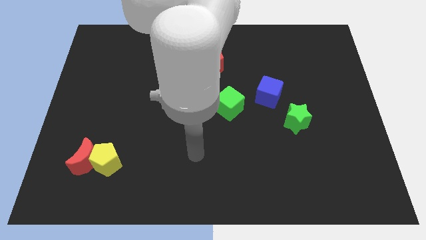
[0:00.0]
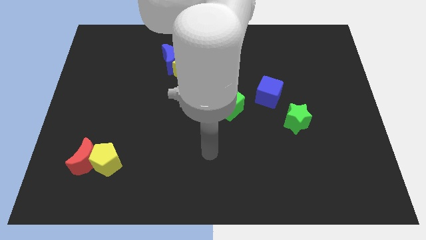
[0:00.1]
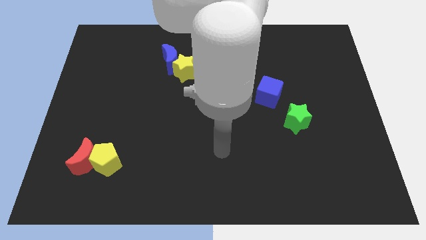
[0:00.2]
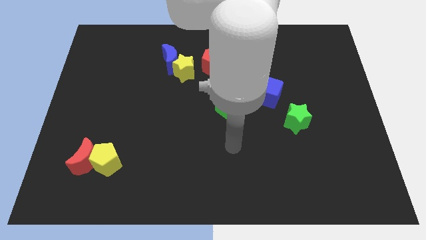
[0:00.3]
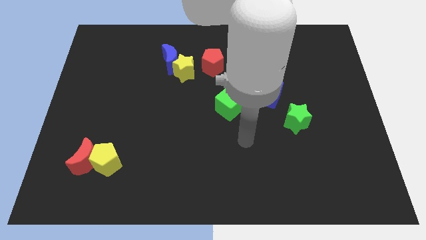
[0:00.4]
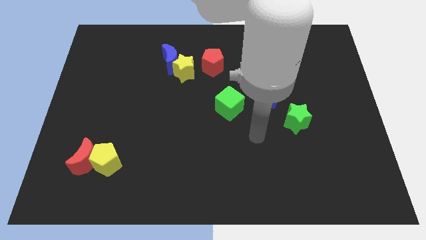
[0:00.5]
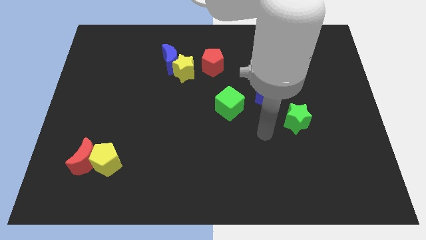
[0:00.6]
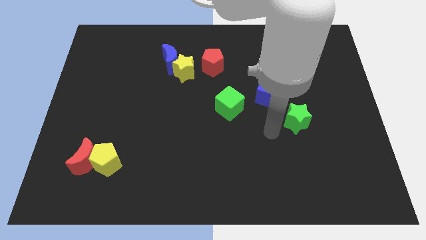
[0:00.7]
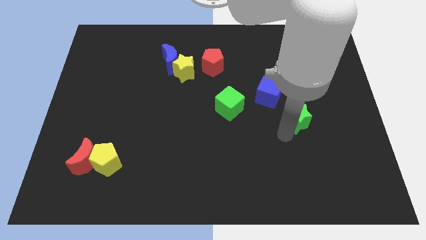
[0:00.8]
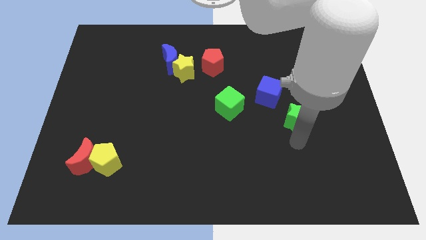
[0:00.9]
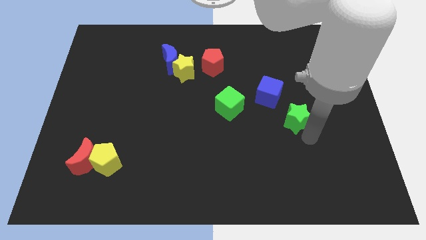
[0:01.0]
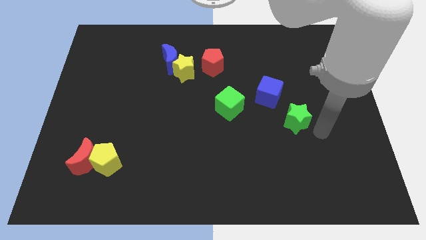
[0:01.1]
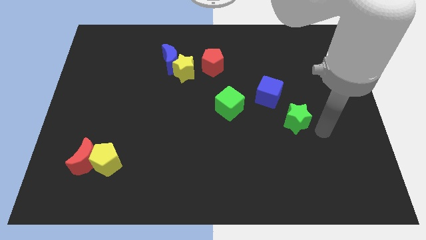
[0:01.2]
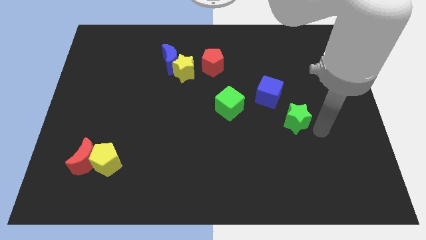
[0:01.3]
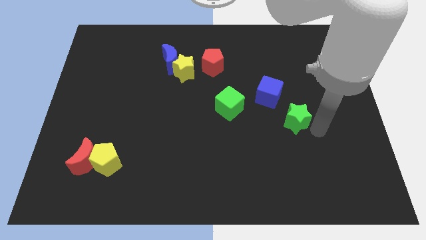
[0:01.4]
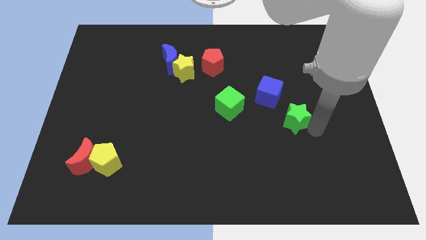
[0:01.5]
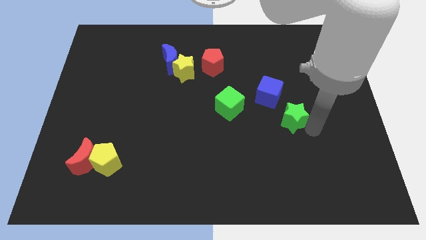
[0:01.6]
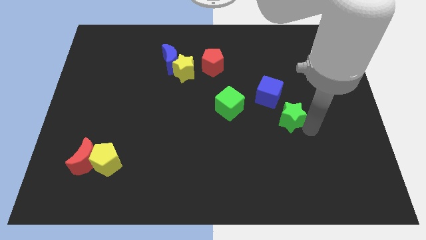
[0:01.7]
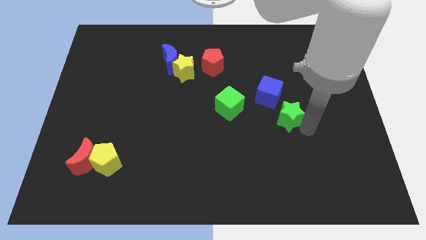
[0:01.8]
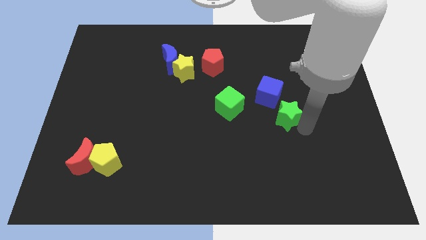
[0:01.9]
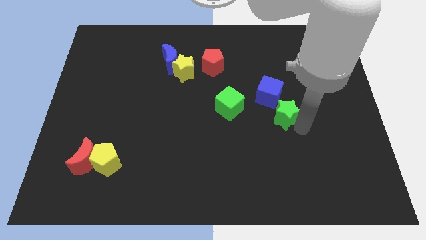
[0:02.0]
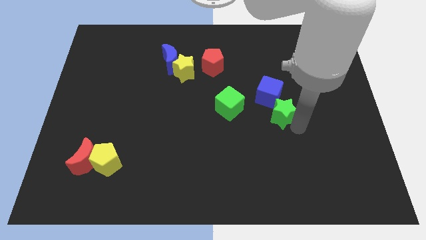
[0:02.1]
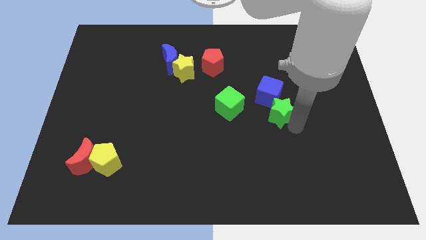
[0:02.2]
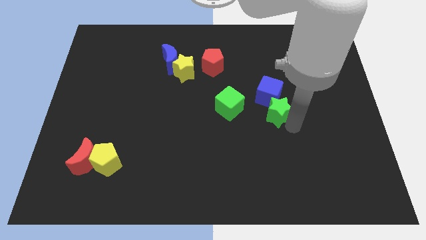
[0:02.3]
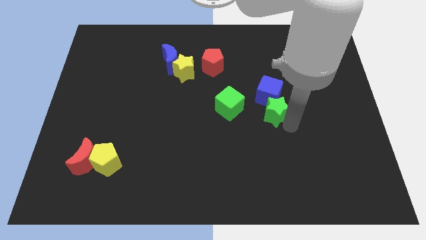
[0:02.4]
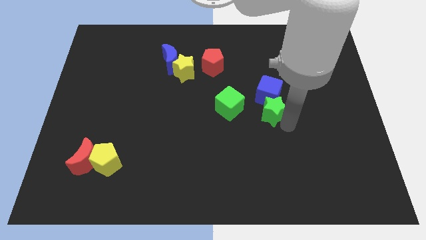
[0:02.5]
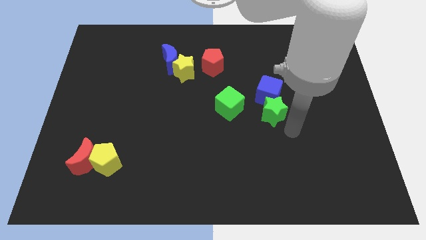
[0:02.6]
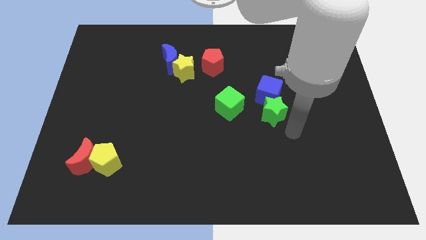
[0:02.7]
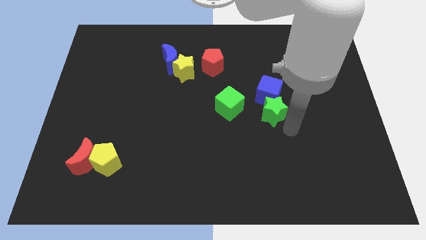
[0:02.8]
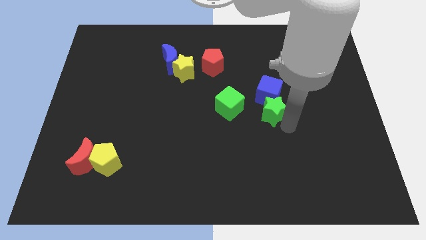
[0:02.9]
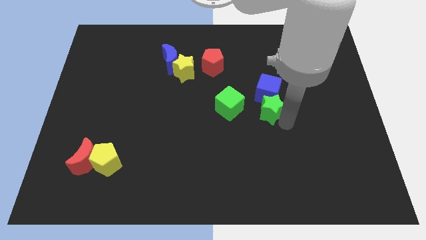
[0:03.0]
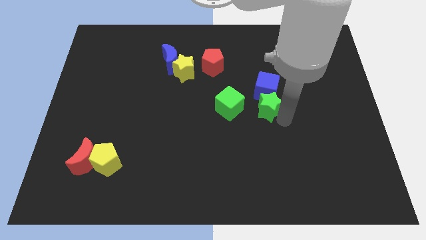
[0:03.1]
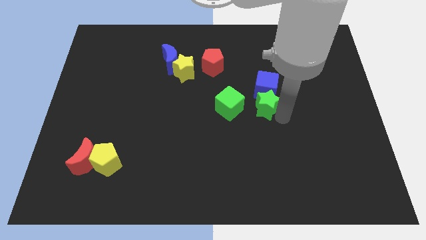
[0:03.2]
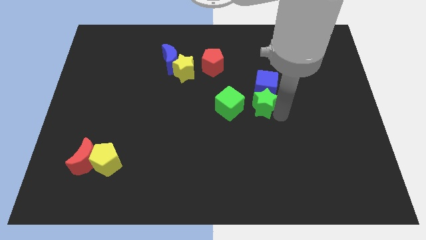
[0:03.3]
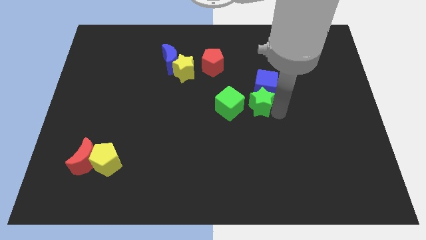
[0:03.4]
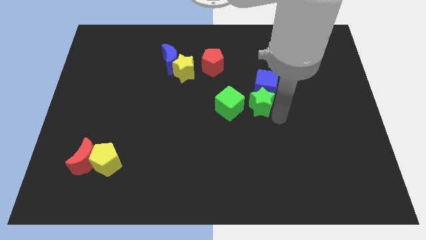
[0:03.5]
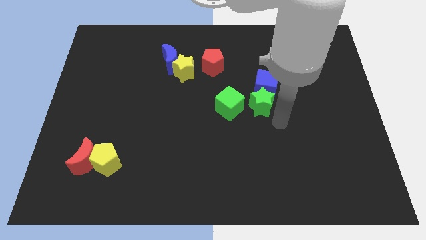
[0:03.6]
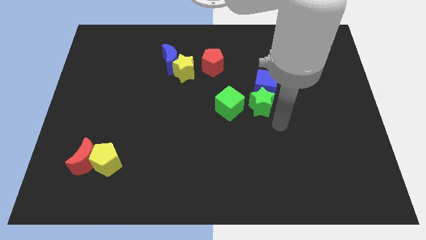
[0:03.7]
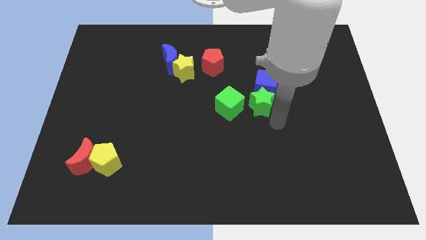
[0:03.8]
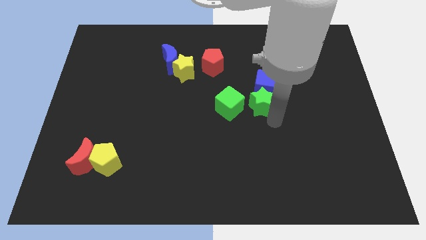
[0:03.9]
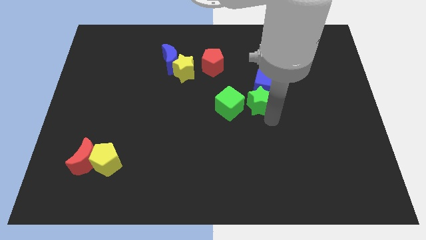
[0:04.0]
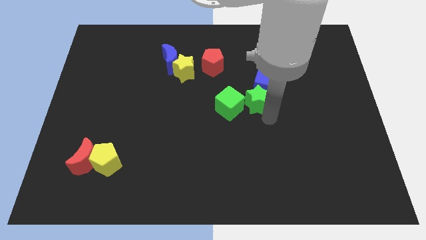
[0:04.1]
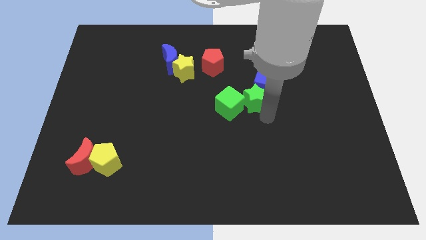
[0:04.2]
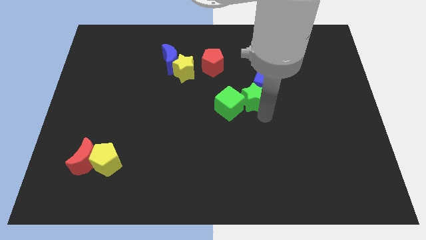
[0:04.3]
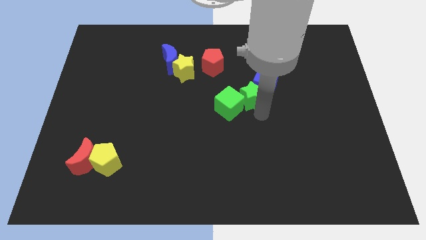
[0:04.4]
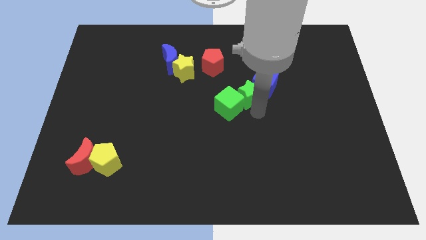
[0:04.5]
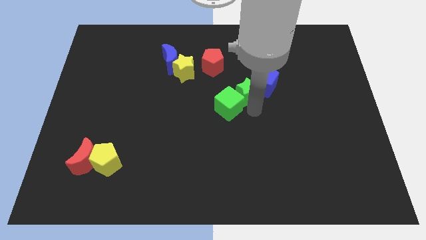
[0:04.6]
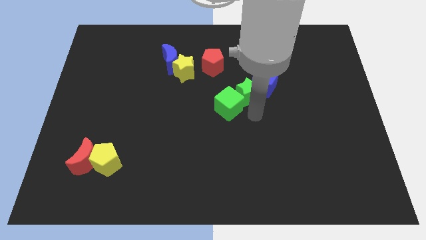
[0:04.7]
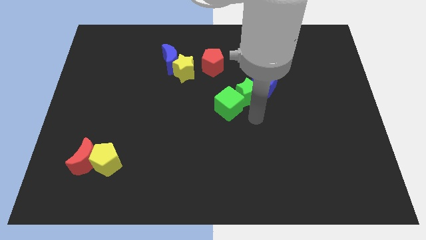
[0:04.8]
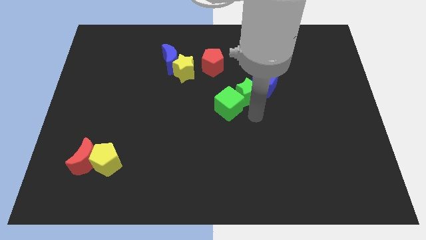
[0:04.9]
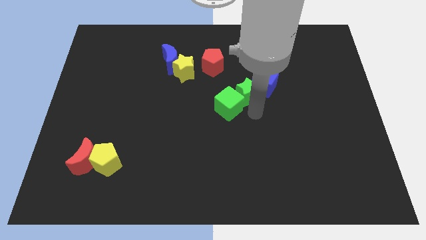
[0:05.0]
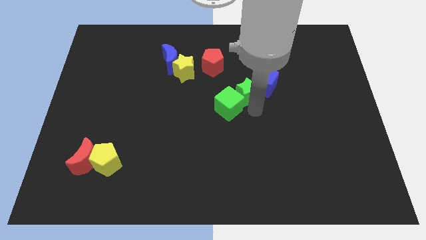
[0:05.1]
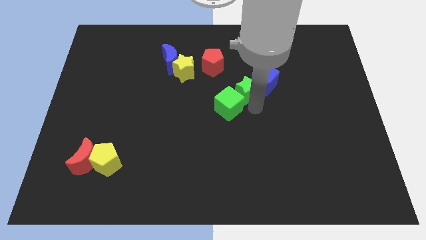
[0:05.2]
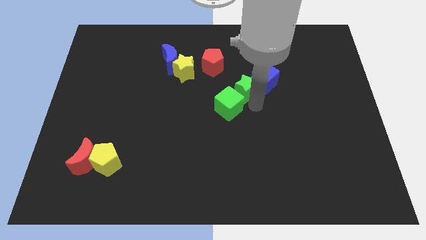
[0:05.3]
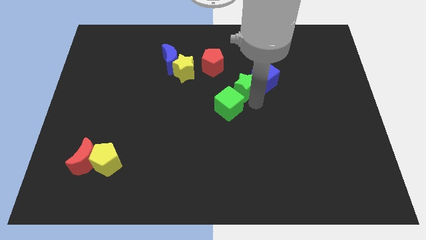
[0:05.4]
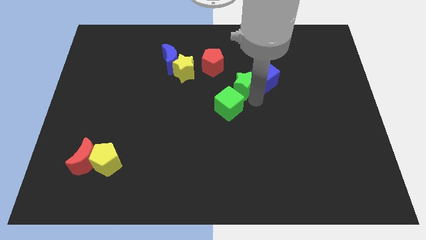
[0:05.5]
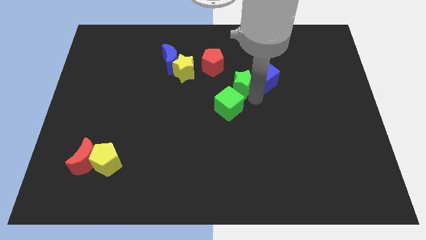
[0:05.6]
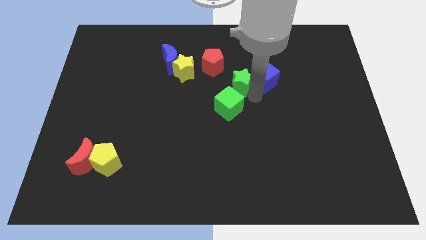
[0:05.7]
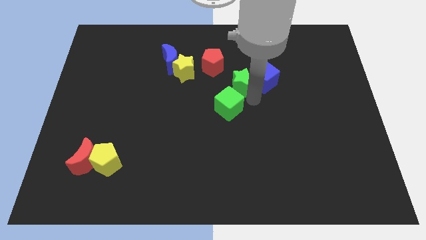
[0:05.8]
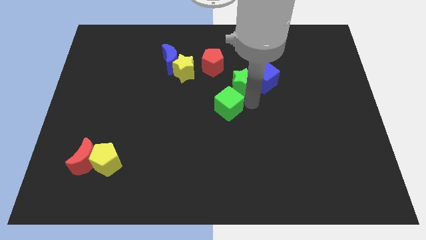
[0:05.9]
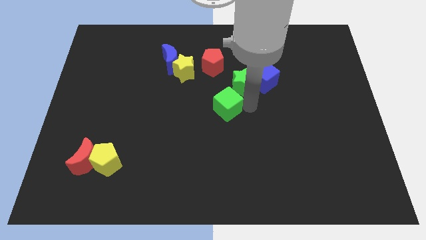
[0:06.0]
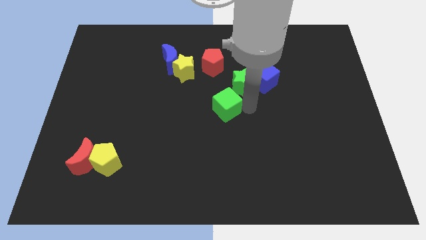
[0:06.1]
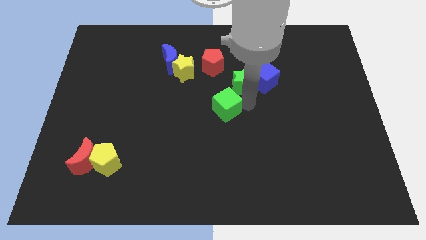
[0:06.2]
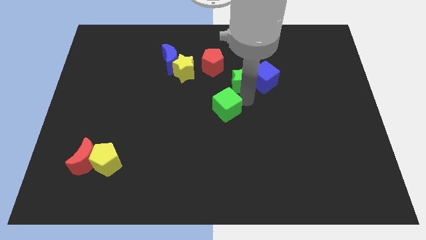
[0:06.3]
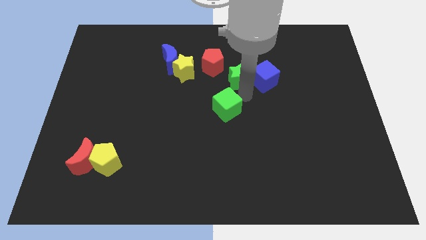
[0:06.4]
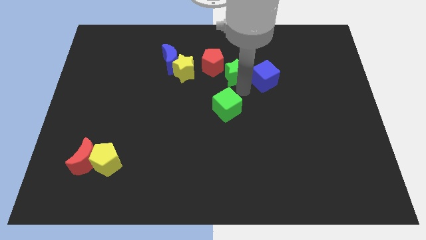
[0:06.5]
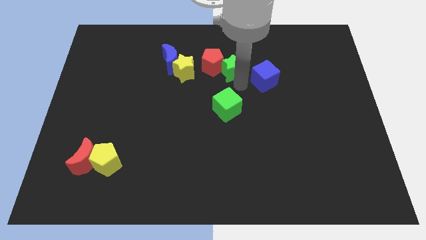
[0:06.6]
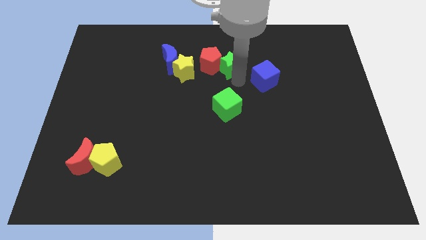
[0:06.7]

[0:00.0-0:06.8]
move the green star right of the blue moon

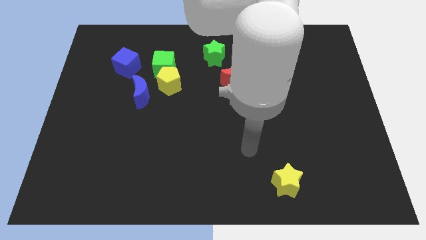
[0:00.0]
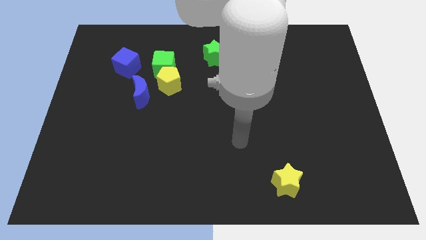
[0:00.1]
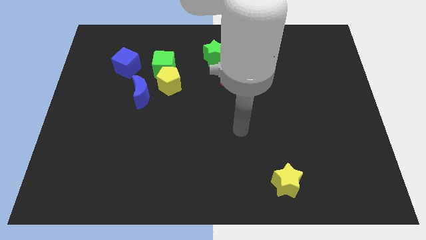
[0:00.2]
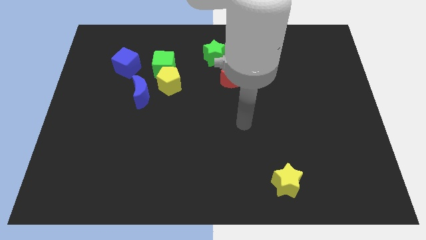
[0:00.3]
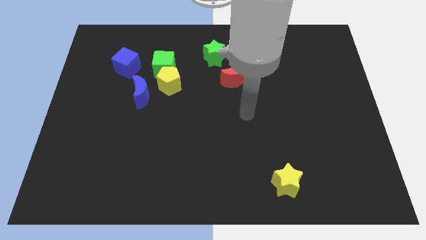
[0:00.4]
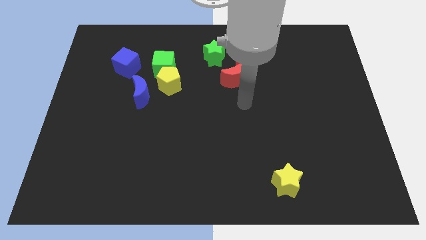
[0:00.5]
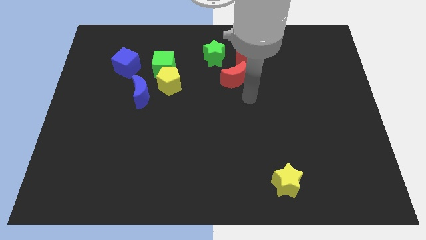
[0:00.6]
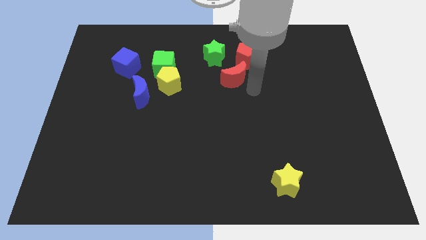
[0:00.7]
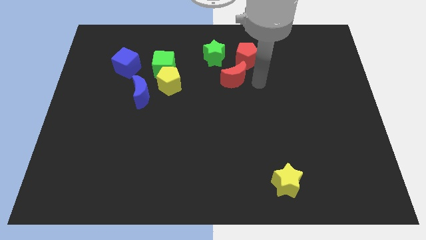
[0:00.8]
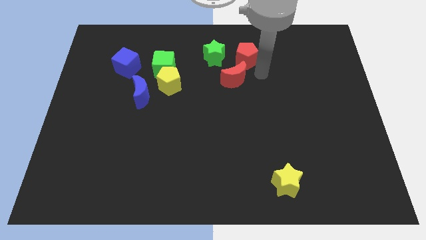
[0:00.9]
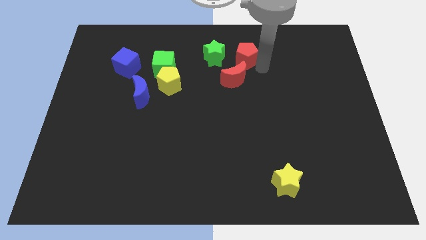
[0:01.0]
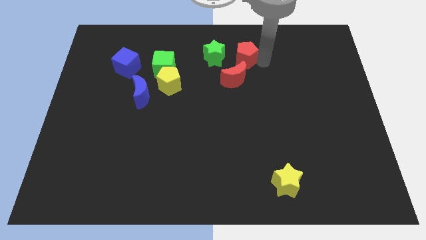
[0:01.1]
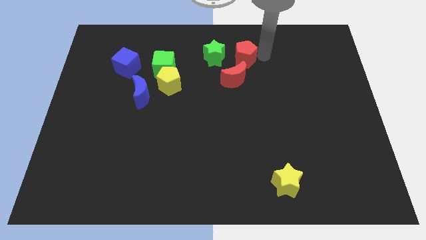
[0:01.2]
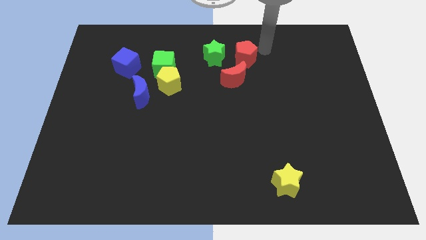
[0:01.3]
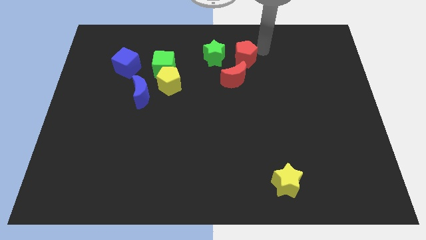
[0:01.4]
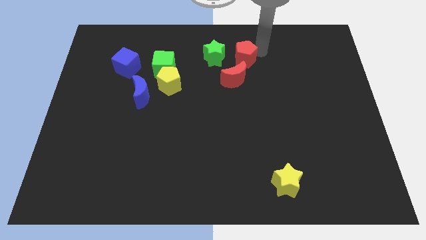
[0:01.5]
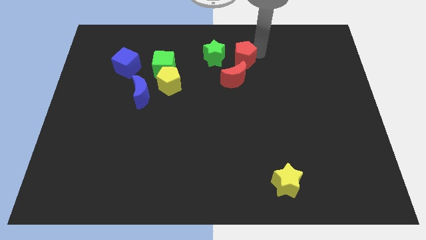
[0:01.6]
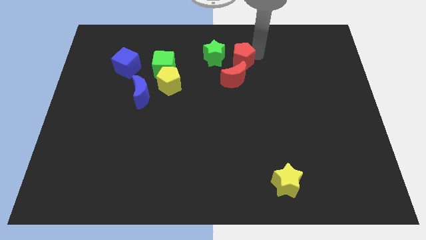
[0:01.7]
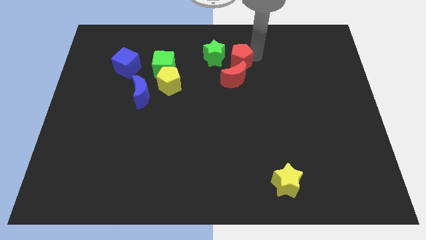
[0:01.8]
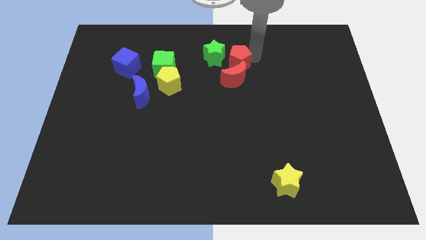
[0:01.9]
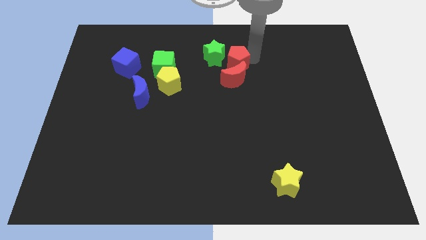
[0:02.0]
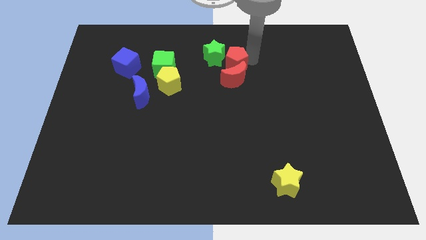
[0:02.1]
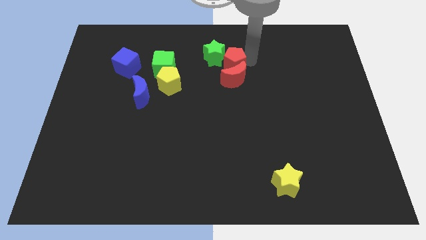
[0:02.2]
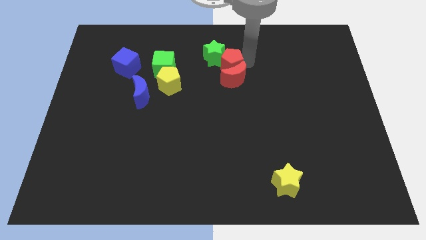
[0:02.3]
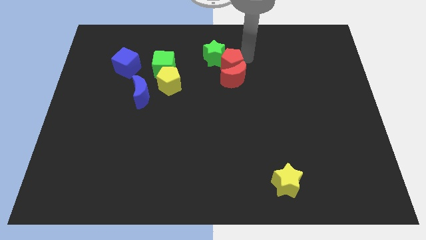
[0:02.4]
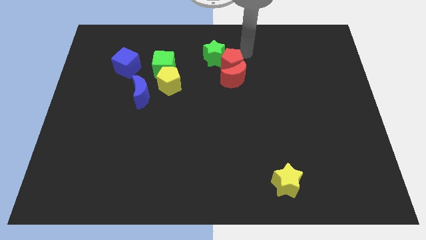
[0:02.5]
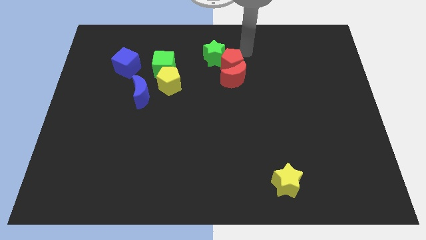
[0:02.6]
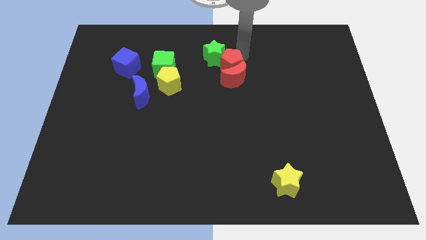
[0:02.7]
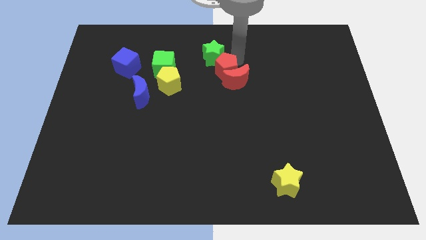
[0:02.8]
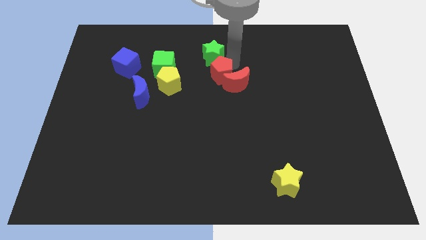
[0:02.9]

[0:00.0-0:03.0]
put the red pentagon right of the yellow pentagon
